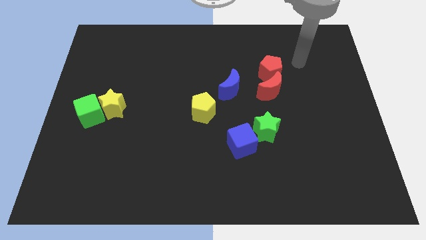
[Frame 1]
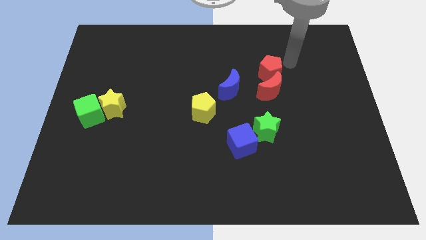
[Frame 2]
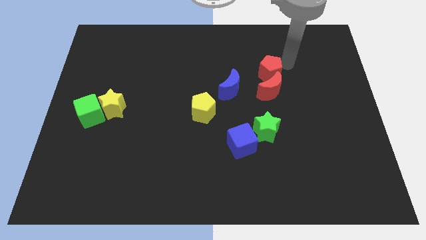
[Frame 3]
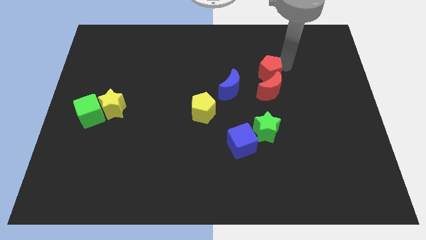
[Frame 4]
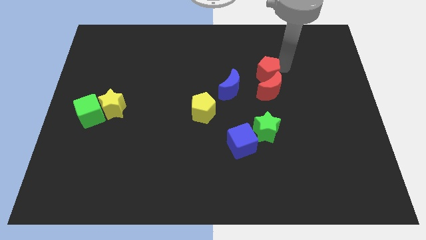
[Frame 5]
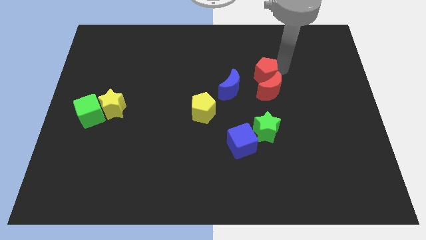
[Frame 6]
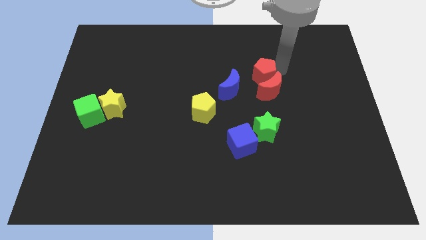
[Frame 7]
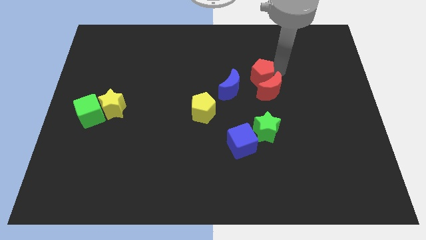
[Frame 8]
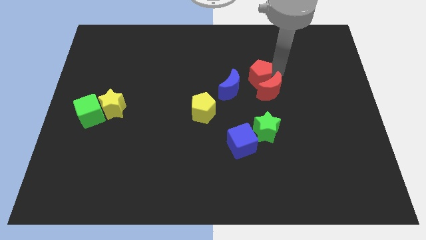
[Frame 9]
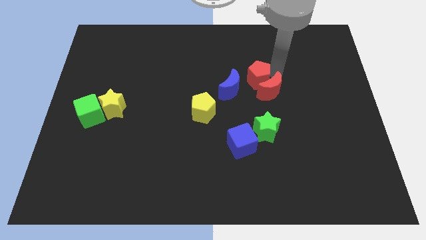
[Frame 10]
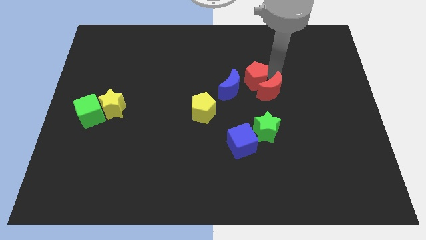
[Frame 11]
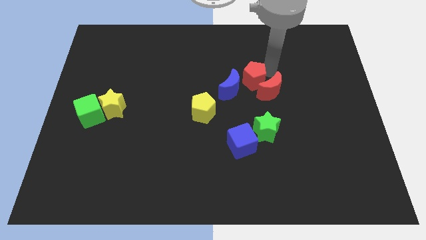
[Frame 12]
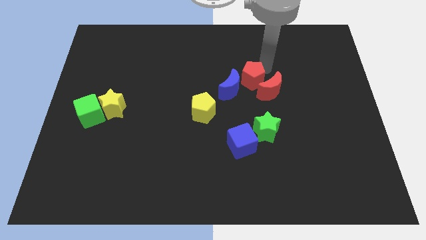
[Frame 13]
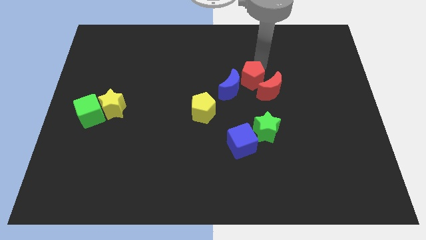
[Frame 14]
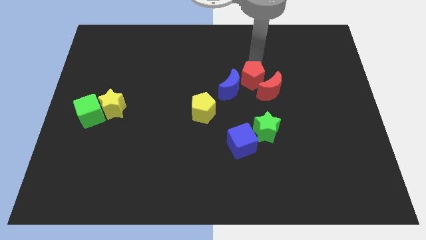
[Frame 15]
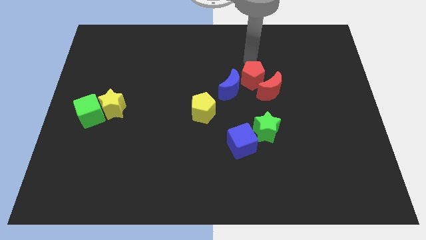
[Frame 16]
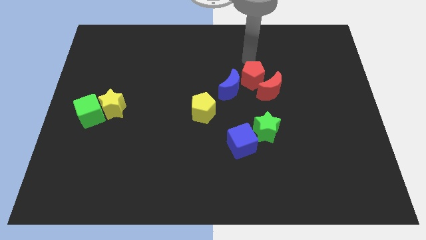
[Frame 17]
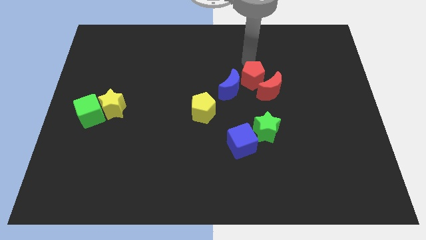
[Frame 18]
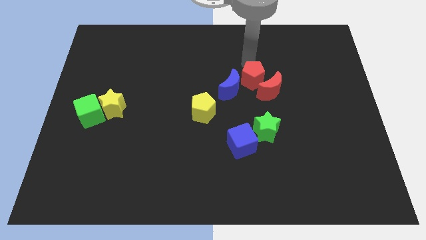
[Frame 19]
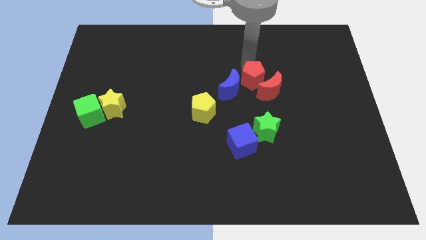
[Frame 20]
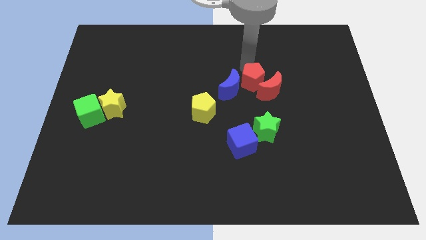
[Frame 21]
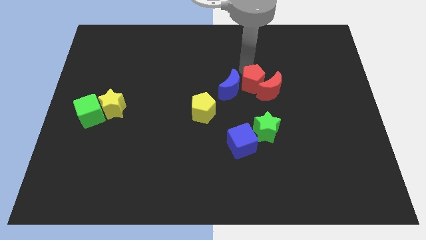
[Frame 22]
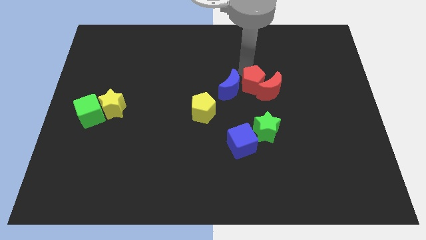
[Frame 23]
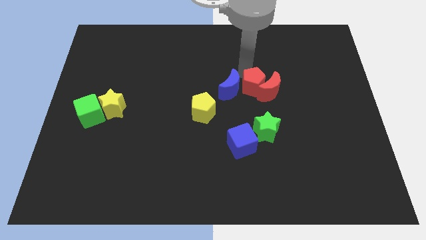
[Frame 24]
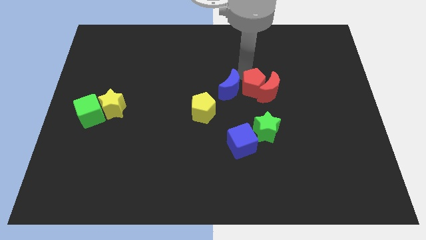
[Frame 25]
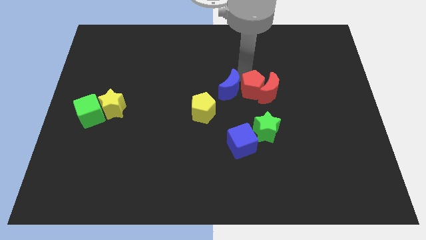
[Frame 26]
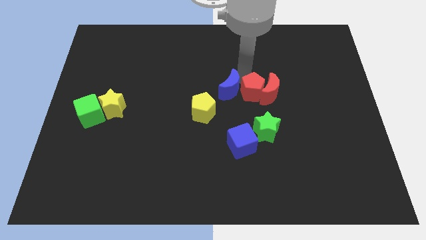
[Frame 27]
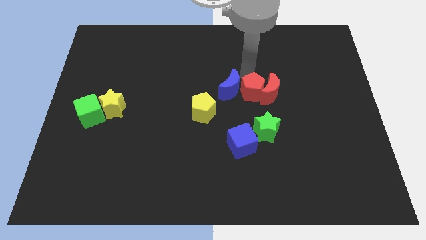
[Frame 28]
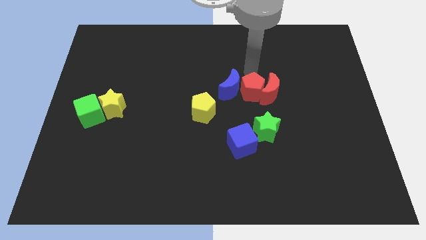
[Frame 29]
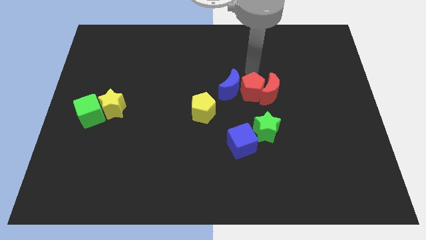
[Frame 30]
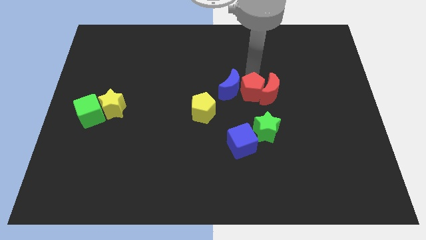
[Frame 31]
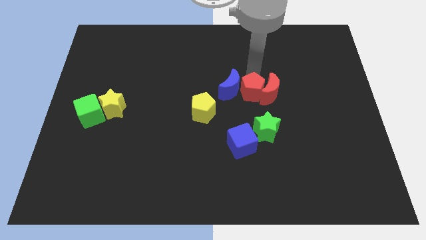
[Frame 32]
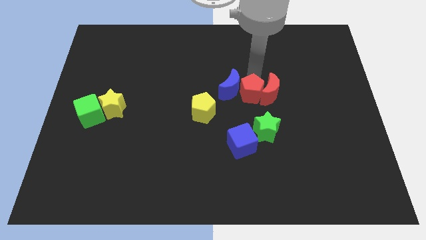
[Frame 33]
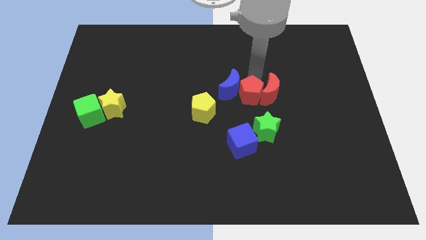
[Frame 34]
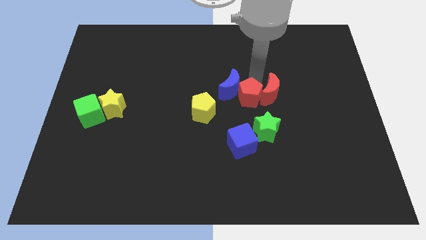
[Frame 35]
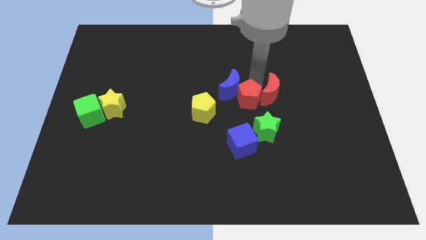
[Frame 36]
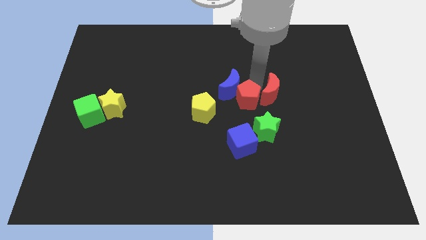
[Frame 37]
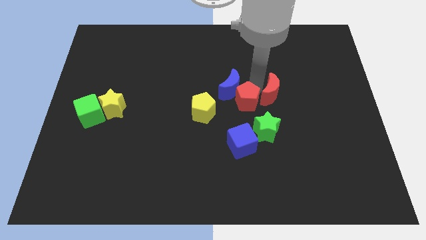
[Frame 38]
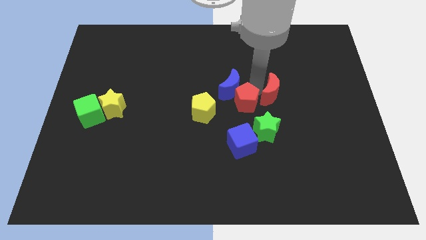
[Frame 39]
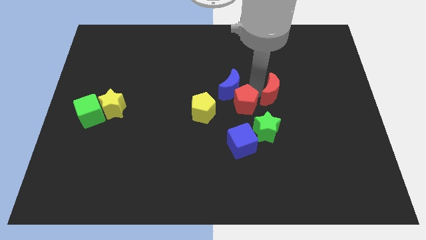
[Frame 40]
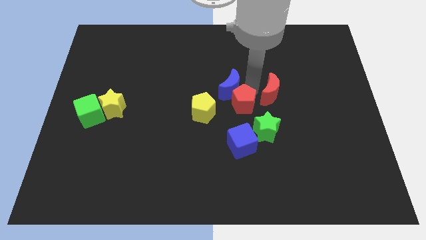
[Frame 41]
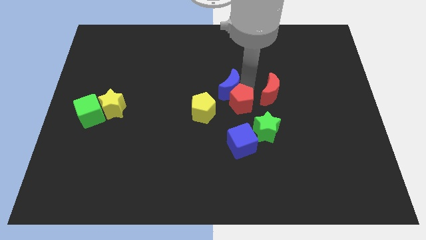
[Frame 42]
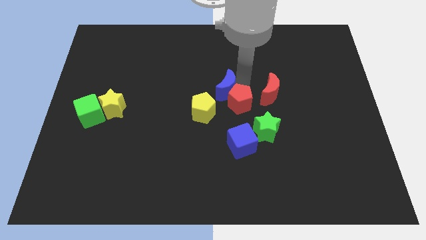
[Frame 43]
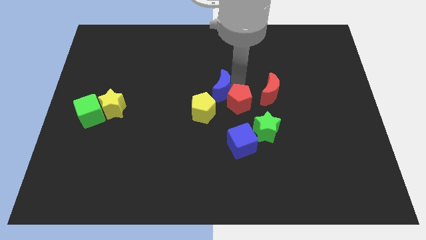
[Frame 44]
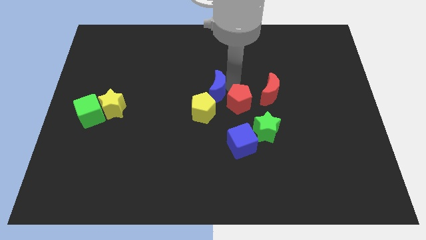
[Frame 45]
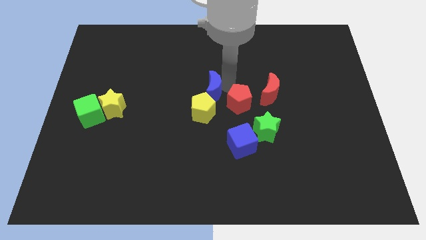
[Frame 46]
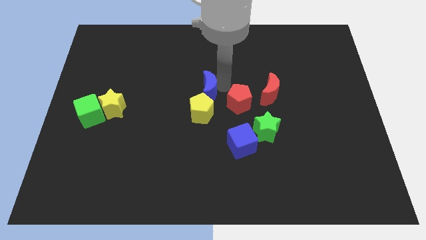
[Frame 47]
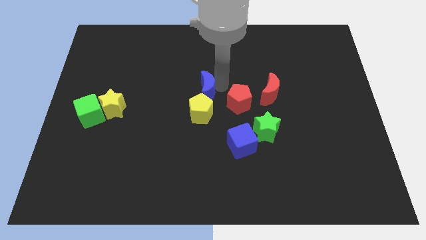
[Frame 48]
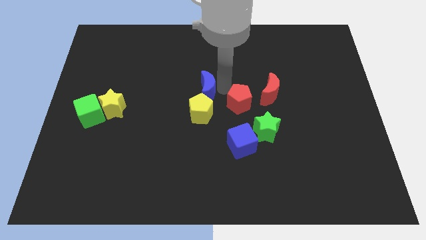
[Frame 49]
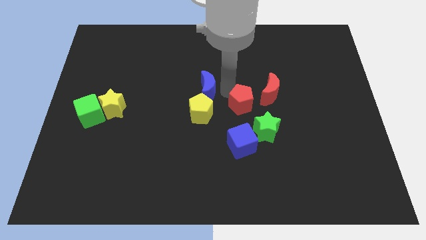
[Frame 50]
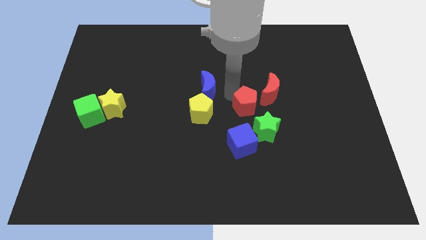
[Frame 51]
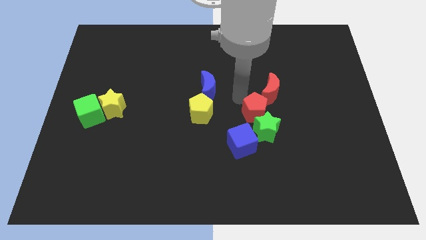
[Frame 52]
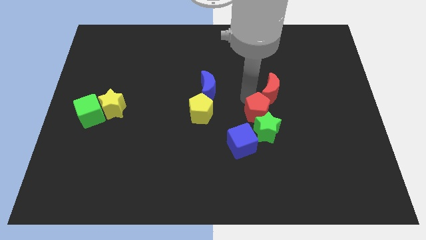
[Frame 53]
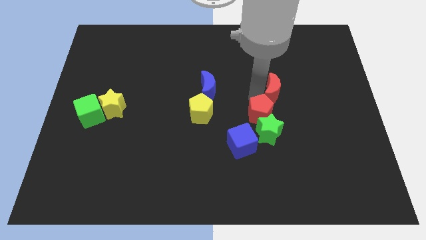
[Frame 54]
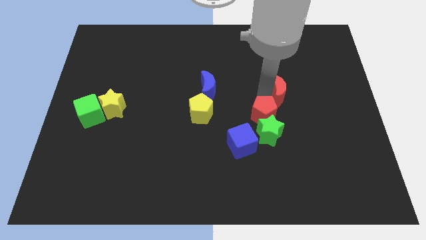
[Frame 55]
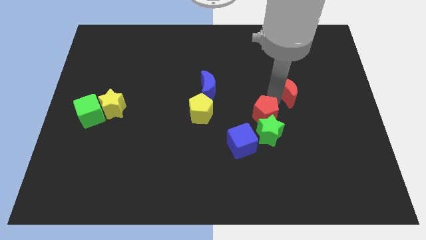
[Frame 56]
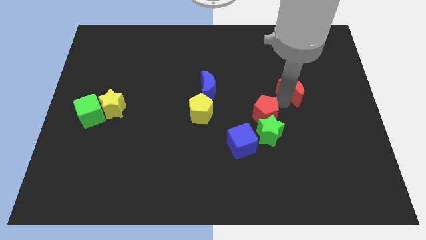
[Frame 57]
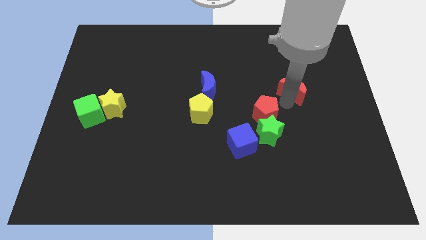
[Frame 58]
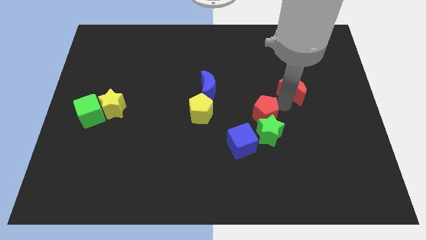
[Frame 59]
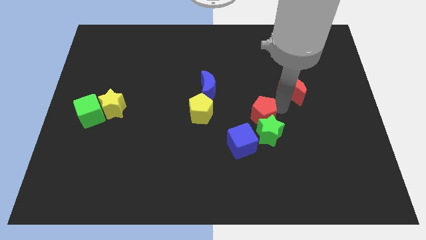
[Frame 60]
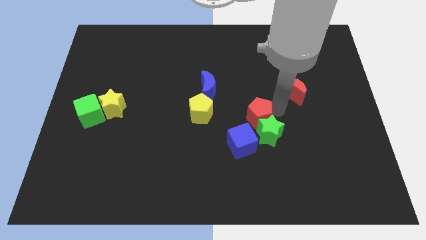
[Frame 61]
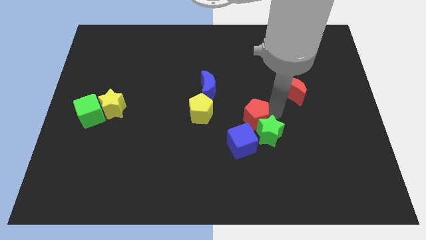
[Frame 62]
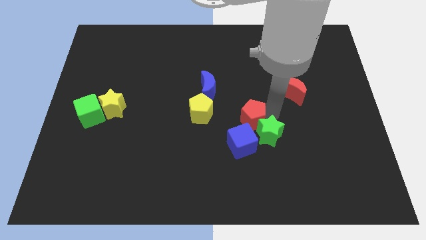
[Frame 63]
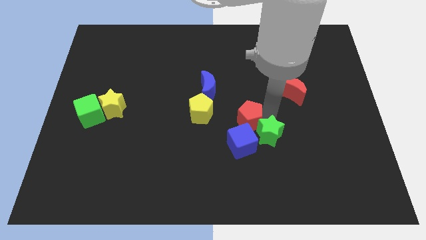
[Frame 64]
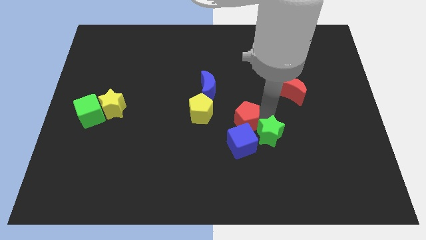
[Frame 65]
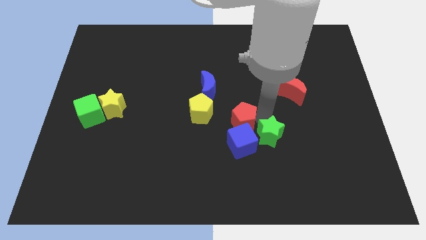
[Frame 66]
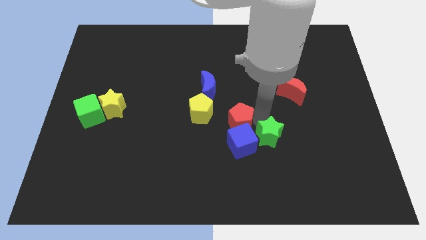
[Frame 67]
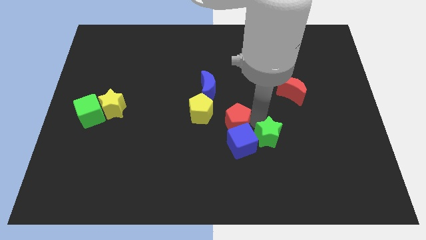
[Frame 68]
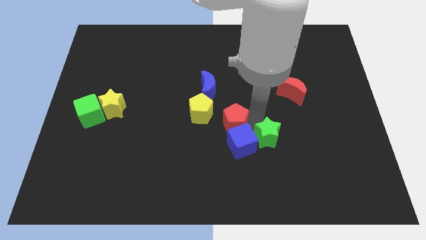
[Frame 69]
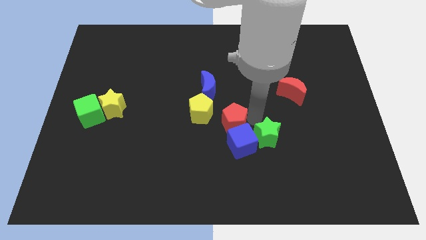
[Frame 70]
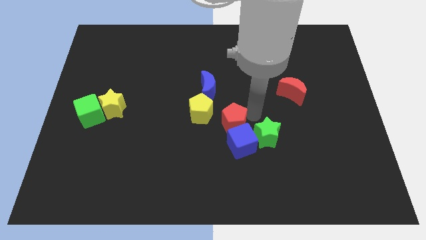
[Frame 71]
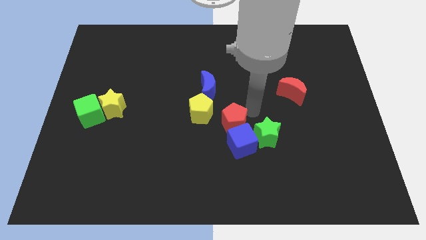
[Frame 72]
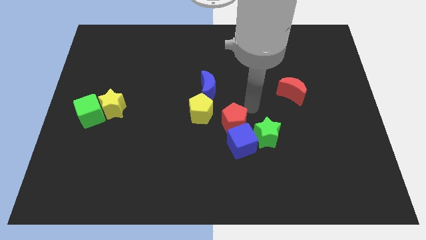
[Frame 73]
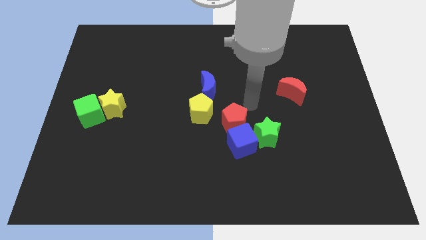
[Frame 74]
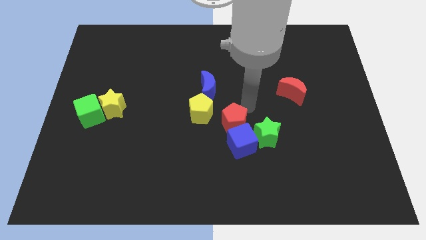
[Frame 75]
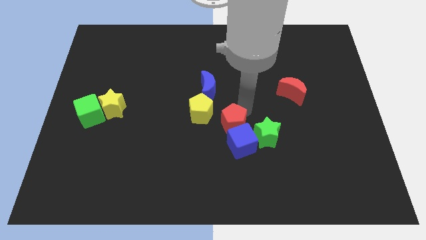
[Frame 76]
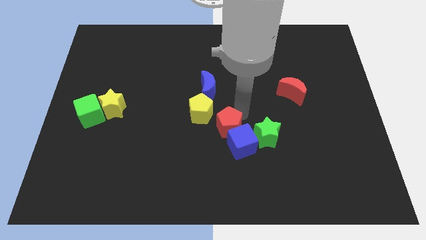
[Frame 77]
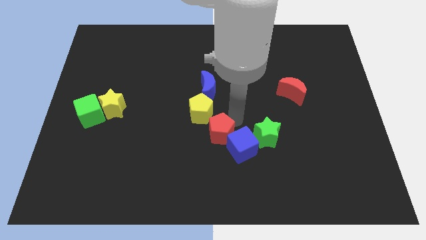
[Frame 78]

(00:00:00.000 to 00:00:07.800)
move the red pentagon just left of the blue cube
